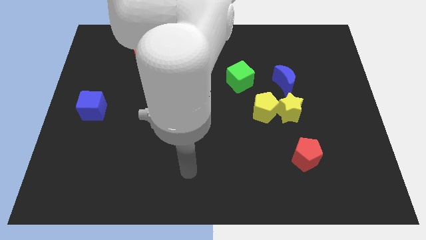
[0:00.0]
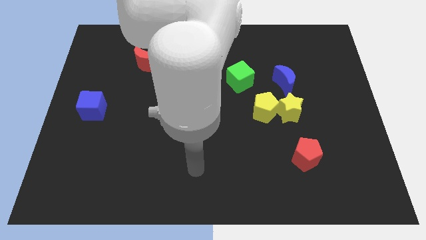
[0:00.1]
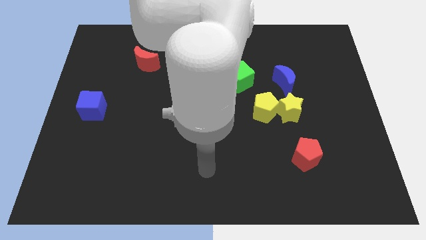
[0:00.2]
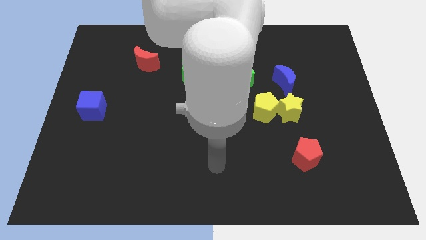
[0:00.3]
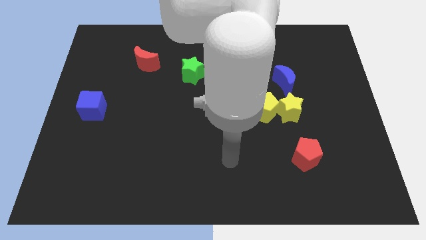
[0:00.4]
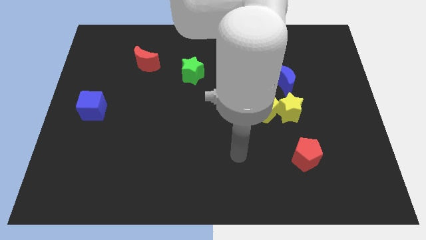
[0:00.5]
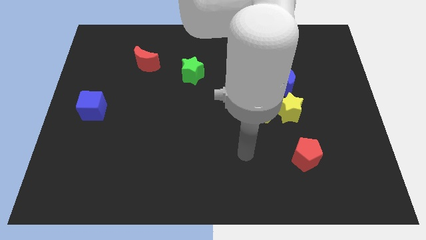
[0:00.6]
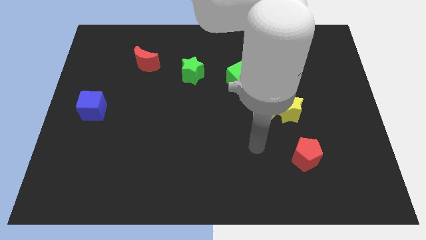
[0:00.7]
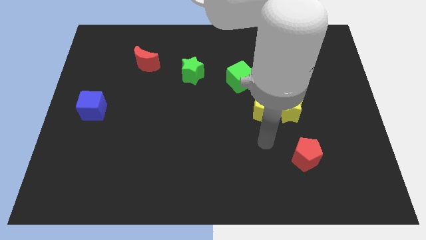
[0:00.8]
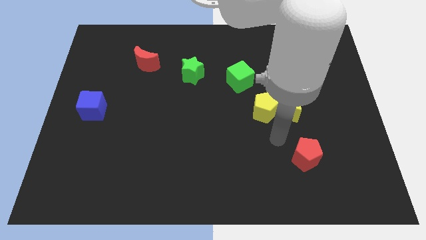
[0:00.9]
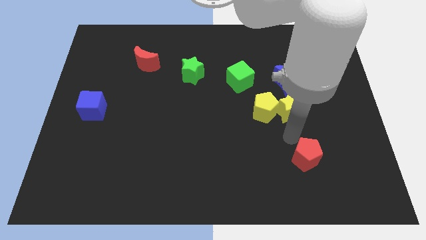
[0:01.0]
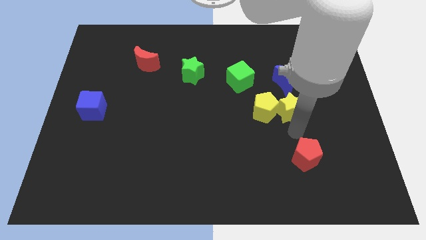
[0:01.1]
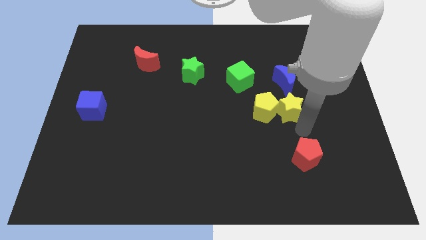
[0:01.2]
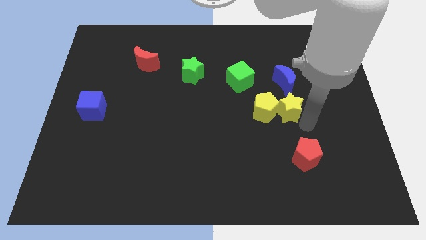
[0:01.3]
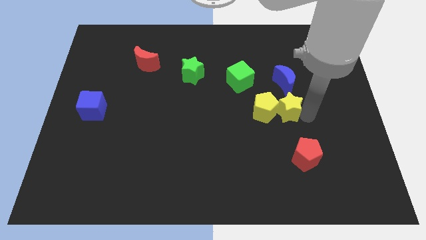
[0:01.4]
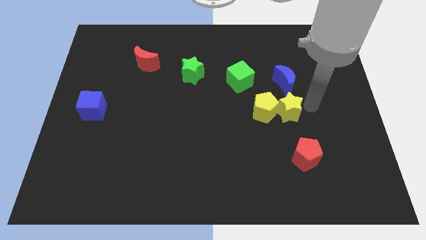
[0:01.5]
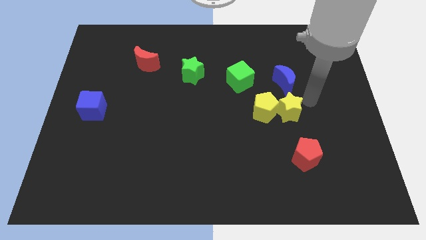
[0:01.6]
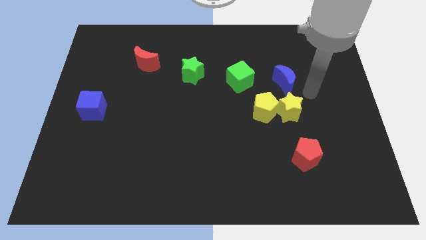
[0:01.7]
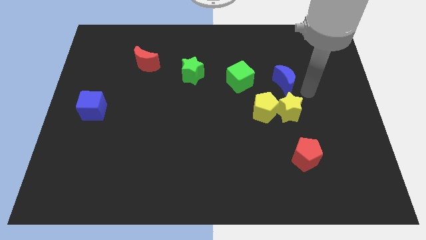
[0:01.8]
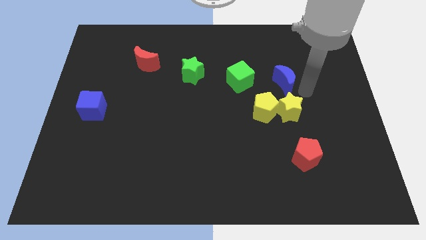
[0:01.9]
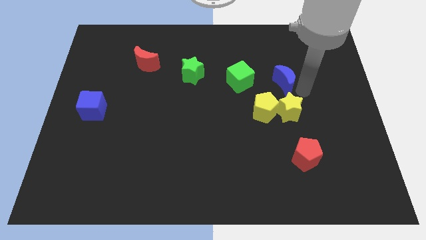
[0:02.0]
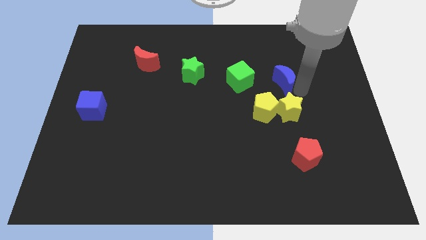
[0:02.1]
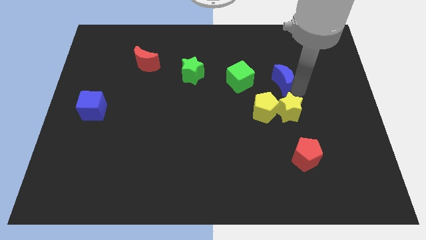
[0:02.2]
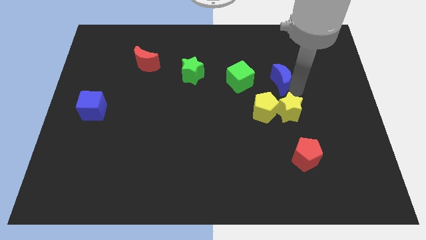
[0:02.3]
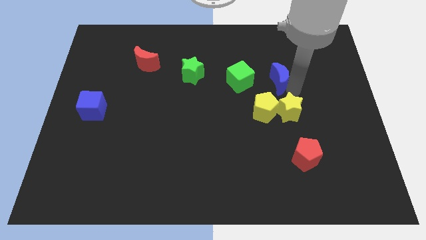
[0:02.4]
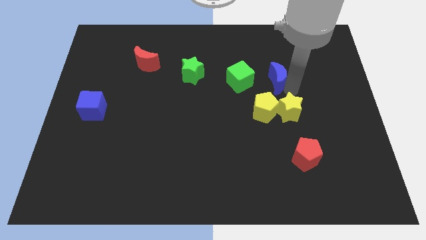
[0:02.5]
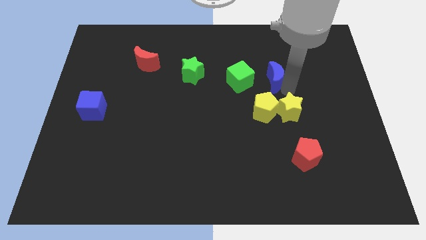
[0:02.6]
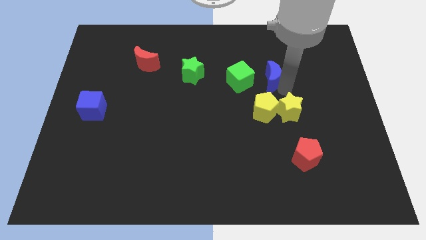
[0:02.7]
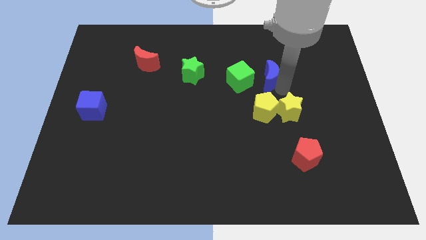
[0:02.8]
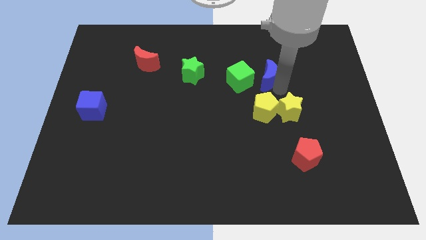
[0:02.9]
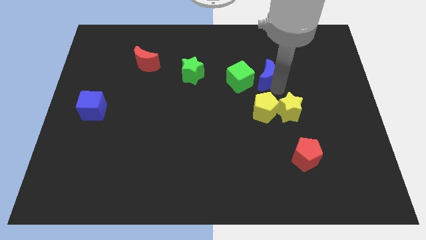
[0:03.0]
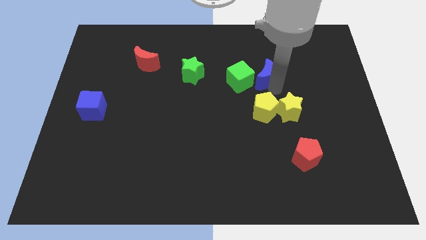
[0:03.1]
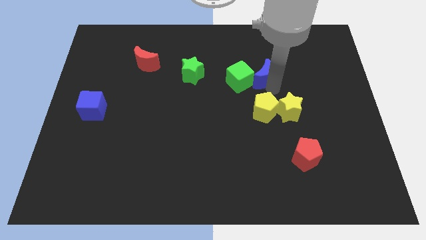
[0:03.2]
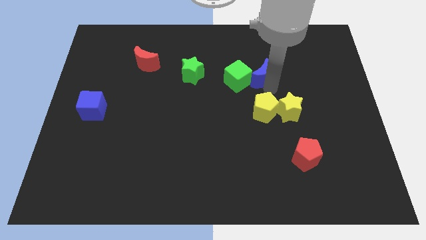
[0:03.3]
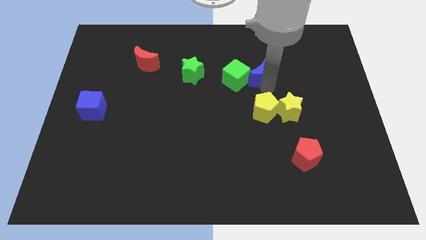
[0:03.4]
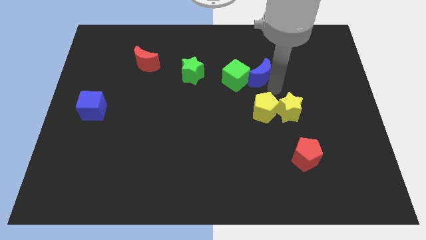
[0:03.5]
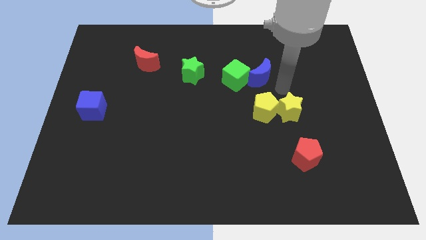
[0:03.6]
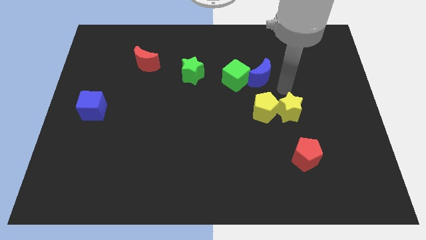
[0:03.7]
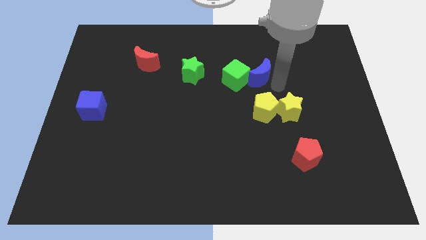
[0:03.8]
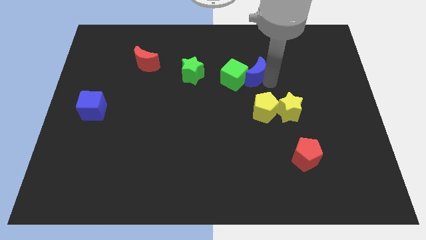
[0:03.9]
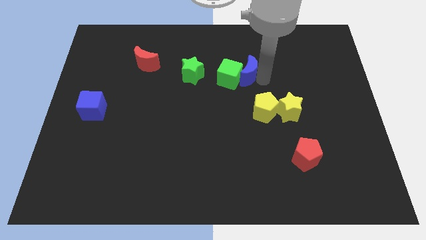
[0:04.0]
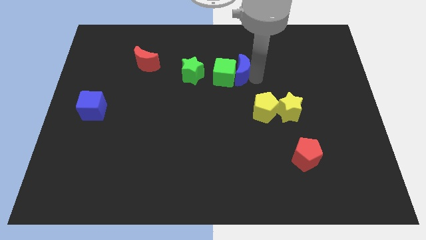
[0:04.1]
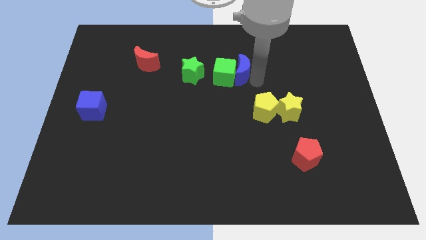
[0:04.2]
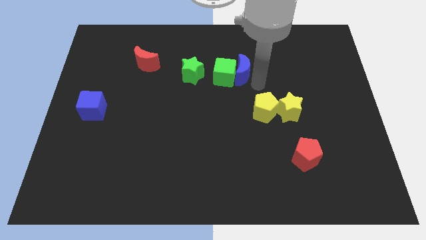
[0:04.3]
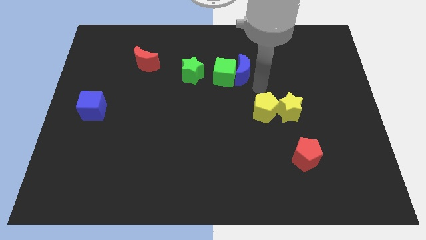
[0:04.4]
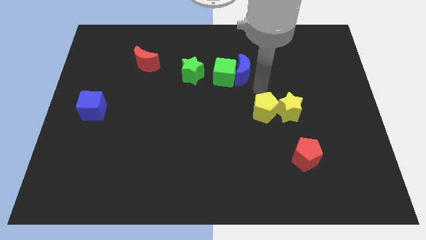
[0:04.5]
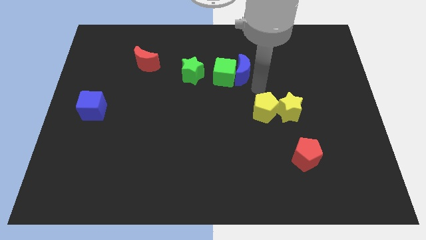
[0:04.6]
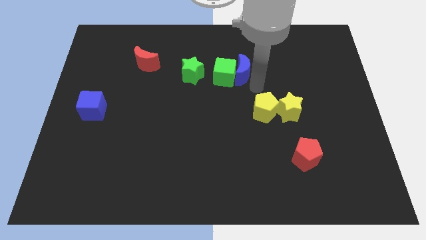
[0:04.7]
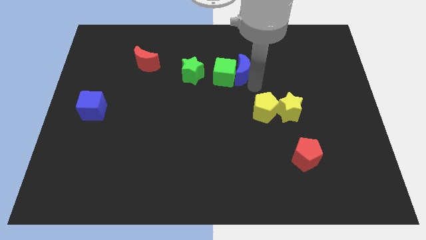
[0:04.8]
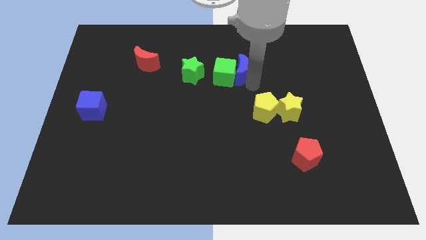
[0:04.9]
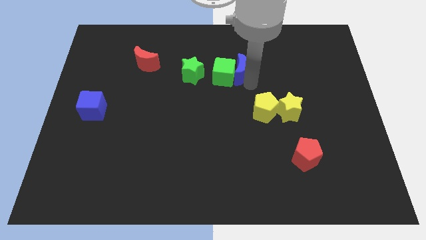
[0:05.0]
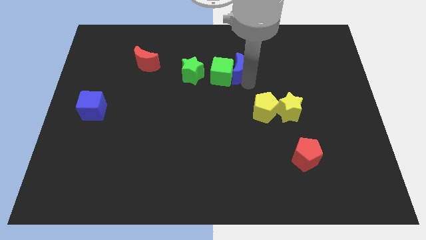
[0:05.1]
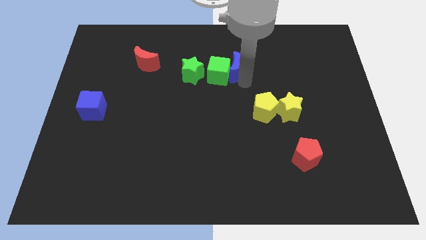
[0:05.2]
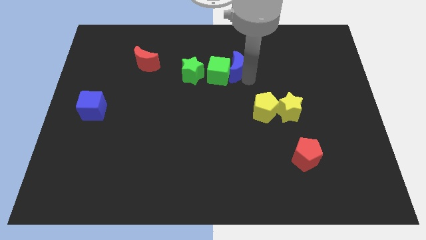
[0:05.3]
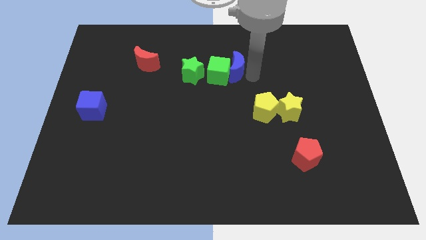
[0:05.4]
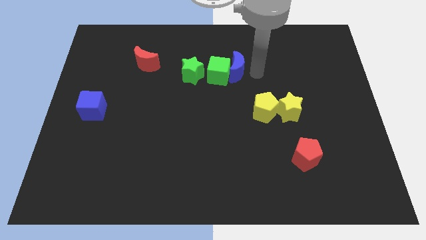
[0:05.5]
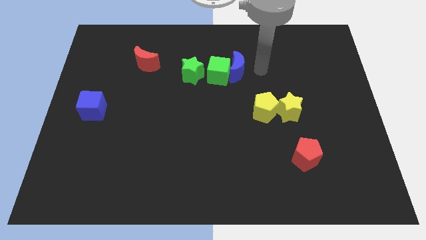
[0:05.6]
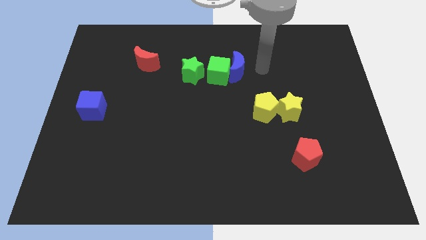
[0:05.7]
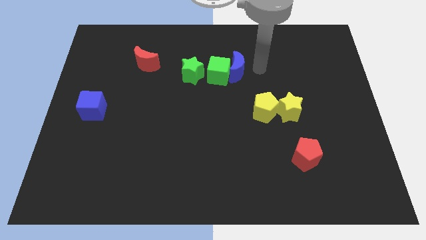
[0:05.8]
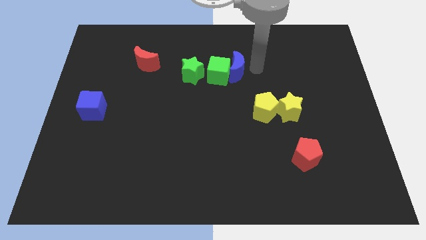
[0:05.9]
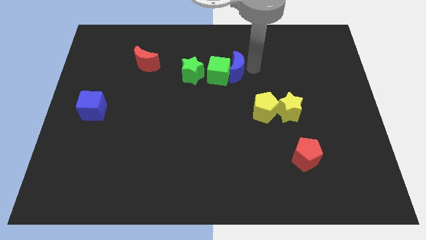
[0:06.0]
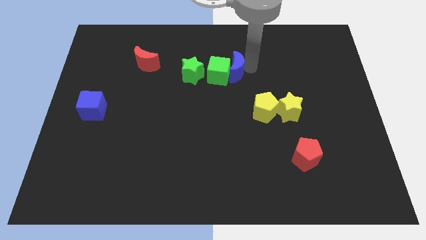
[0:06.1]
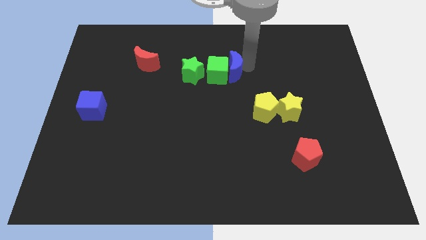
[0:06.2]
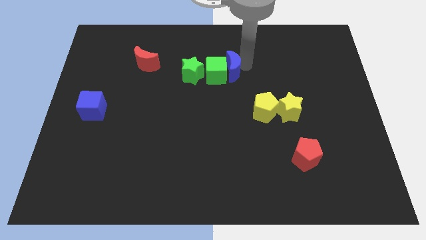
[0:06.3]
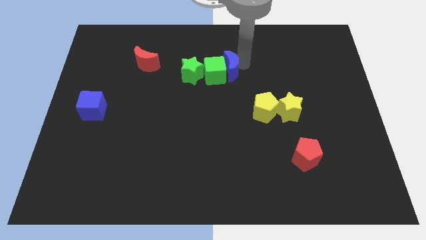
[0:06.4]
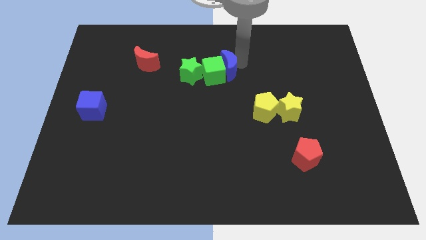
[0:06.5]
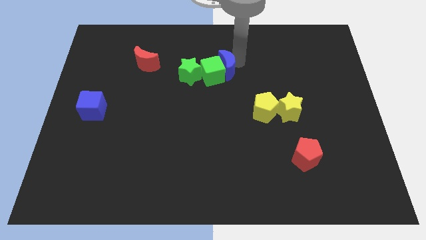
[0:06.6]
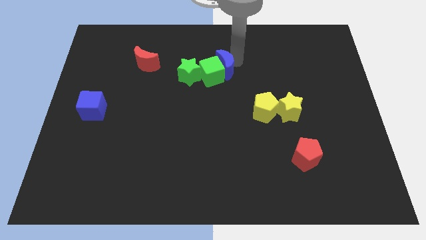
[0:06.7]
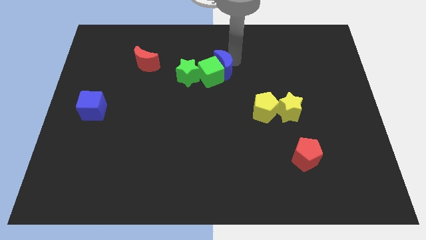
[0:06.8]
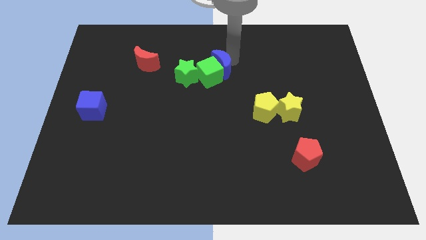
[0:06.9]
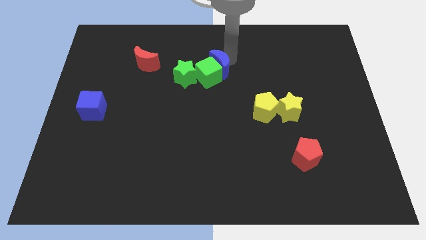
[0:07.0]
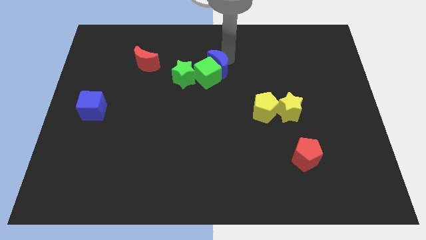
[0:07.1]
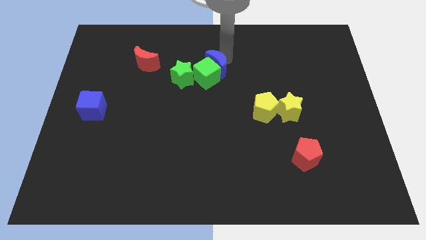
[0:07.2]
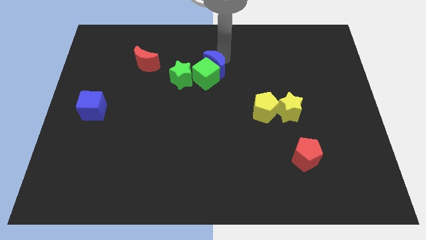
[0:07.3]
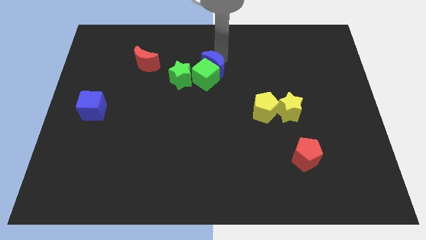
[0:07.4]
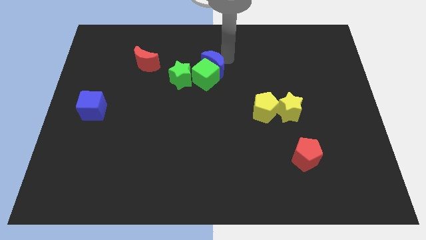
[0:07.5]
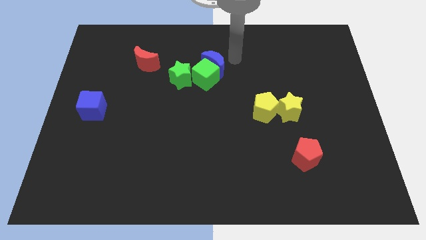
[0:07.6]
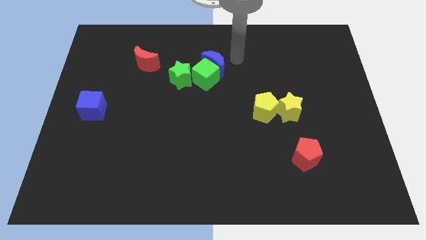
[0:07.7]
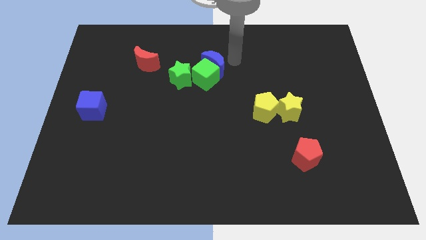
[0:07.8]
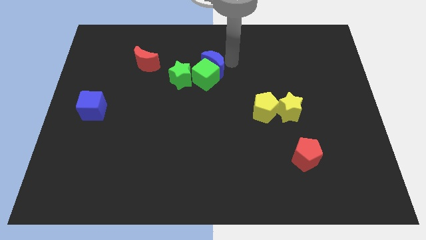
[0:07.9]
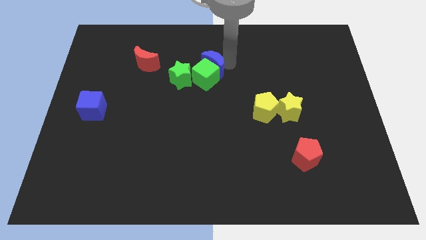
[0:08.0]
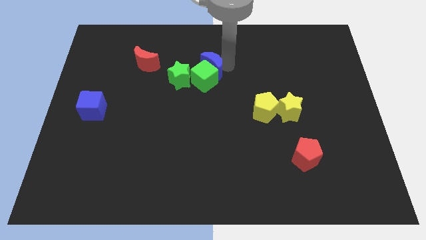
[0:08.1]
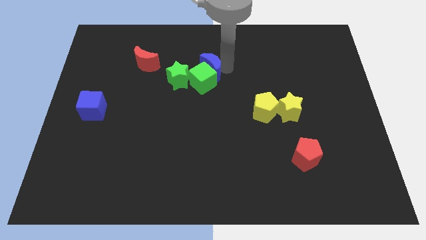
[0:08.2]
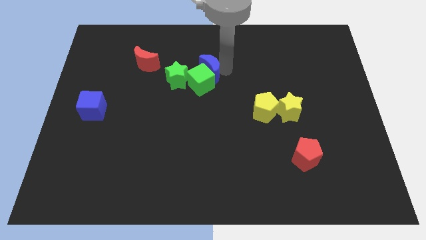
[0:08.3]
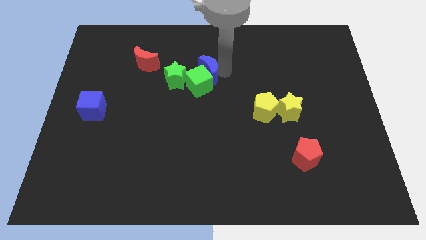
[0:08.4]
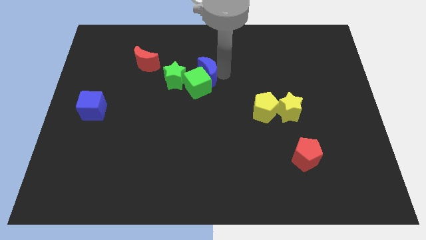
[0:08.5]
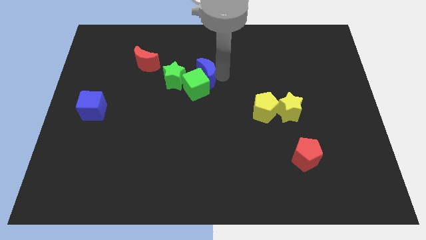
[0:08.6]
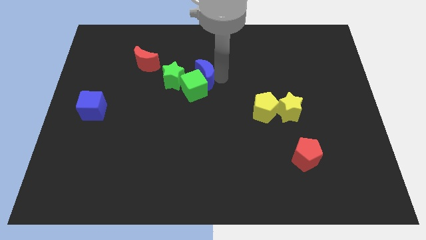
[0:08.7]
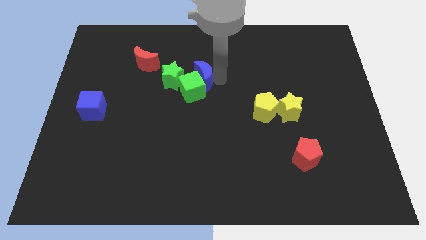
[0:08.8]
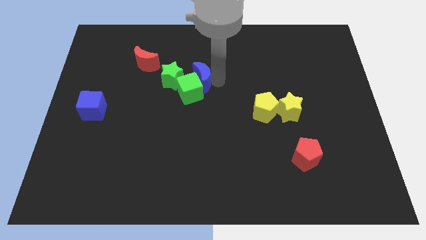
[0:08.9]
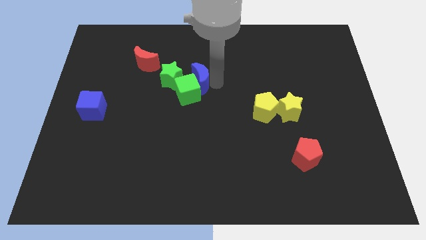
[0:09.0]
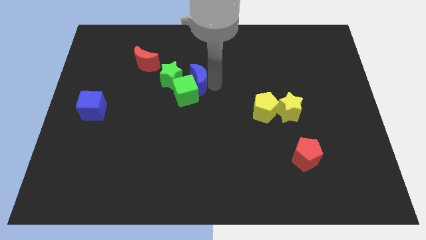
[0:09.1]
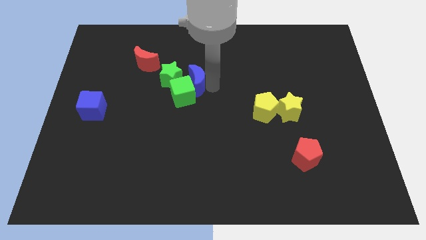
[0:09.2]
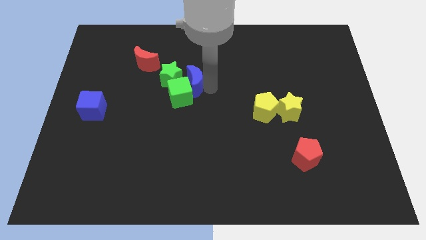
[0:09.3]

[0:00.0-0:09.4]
push the blue moon close to the green star
